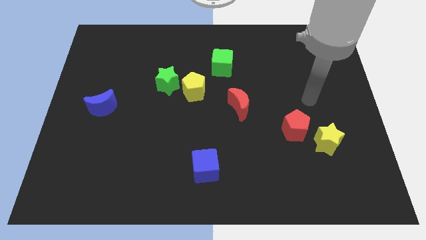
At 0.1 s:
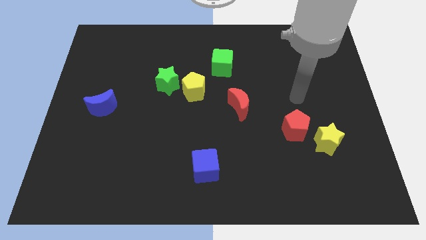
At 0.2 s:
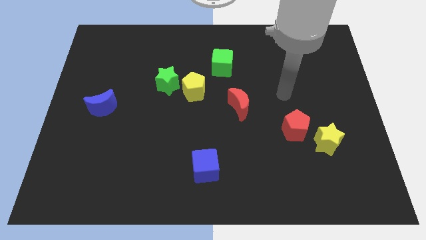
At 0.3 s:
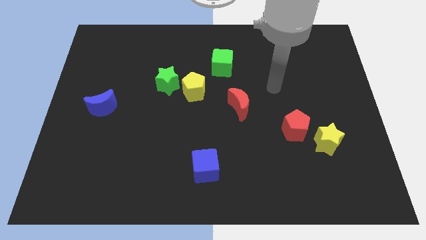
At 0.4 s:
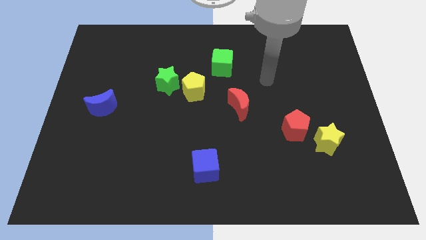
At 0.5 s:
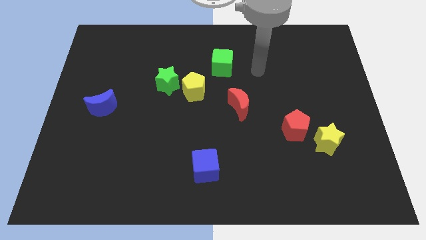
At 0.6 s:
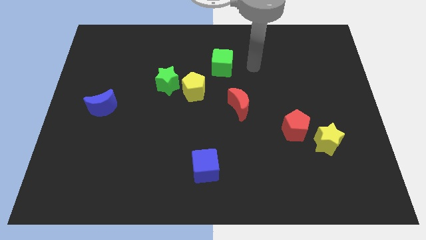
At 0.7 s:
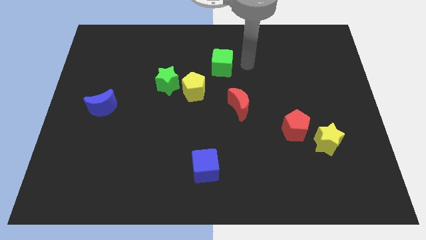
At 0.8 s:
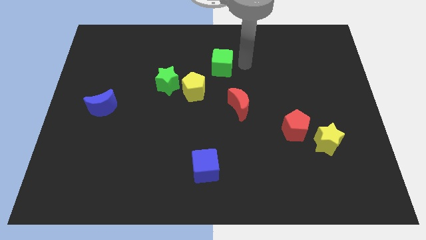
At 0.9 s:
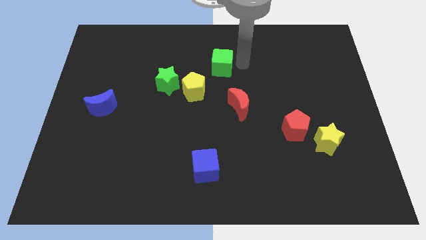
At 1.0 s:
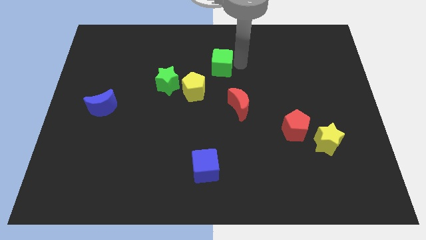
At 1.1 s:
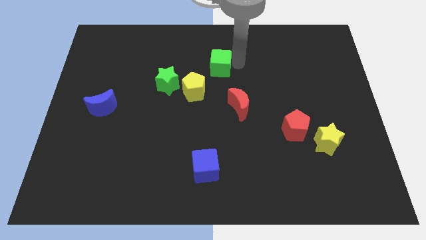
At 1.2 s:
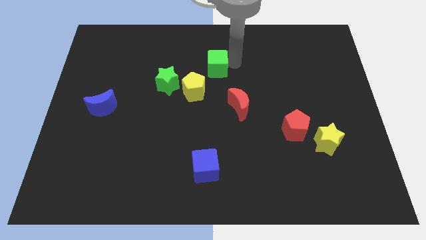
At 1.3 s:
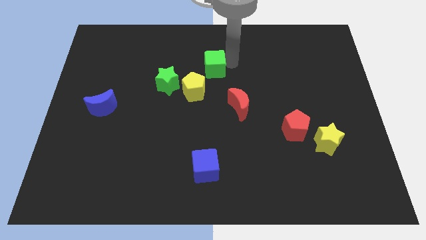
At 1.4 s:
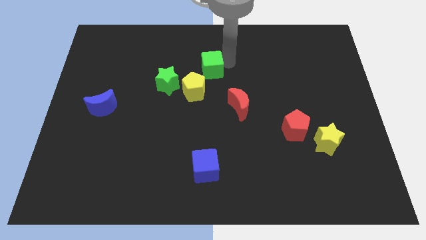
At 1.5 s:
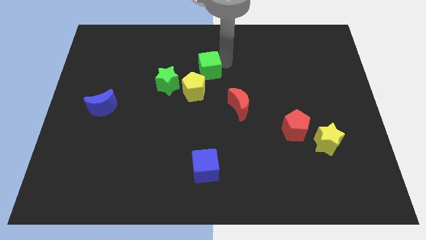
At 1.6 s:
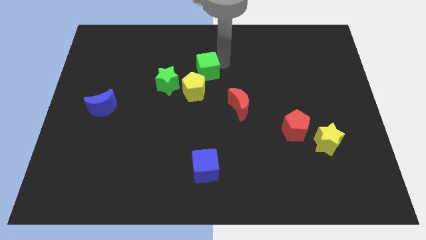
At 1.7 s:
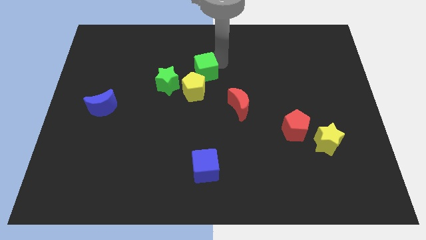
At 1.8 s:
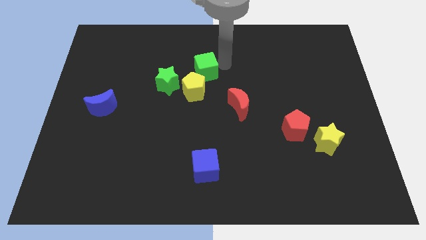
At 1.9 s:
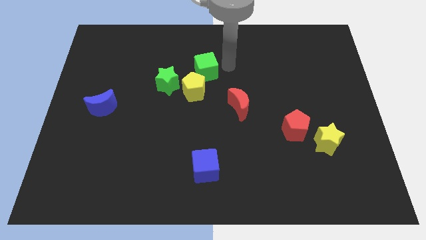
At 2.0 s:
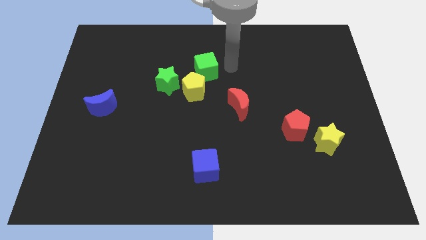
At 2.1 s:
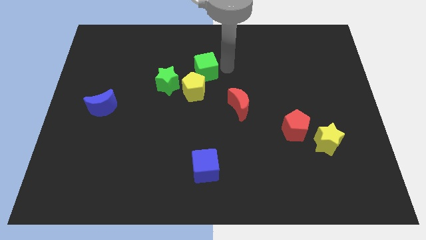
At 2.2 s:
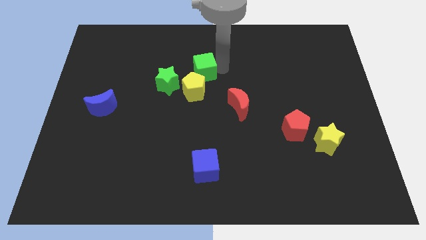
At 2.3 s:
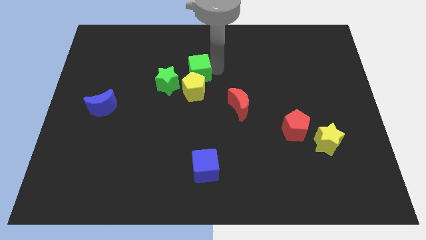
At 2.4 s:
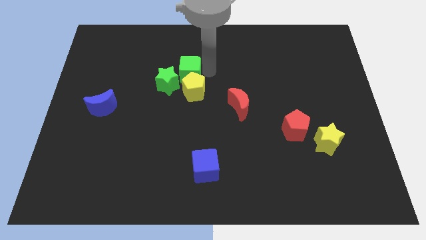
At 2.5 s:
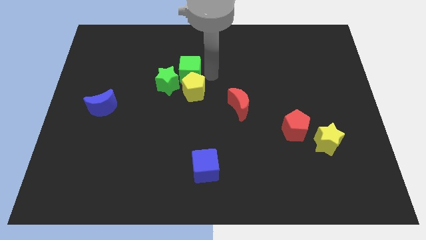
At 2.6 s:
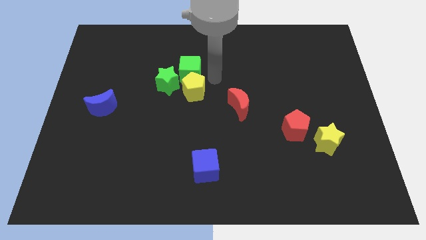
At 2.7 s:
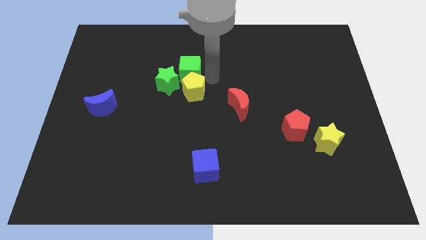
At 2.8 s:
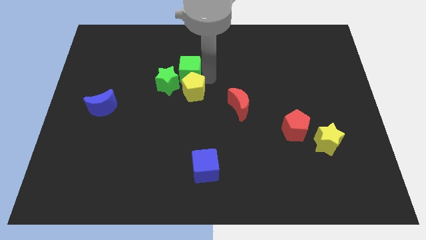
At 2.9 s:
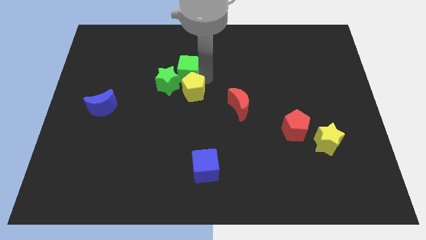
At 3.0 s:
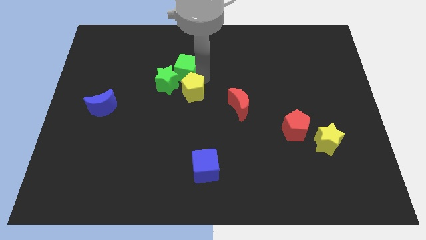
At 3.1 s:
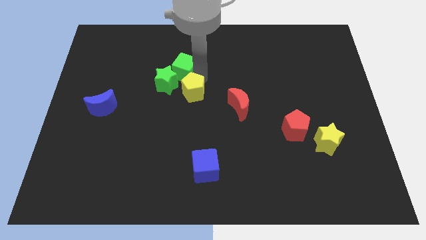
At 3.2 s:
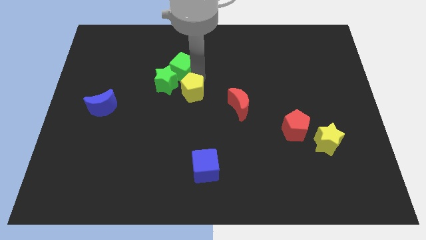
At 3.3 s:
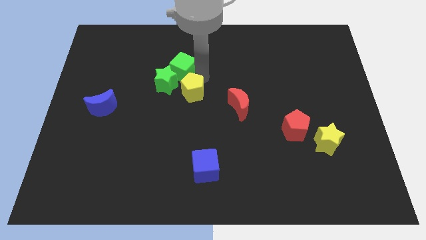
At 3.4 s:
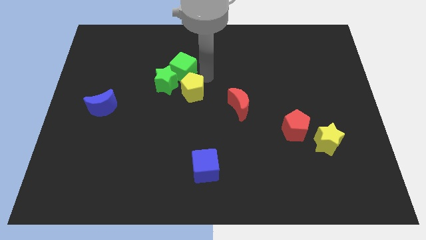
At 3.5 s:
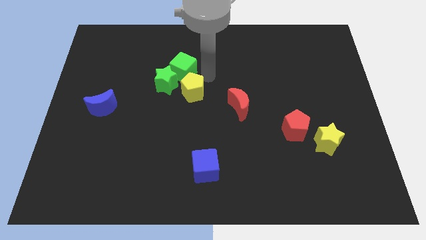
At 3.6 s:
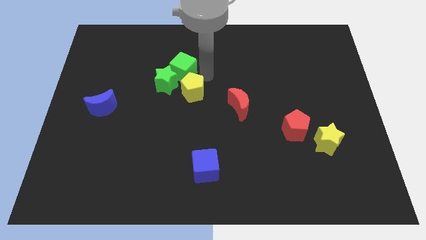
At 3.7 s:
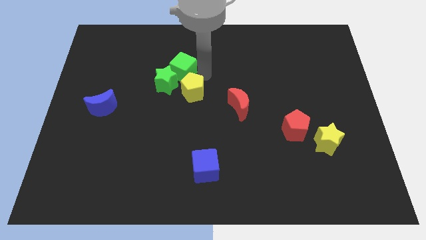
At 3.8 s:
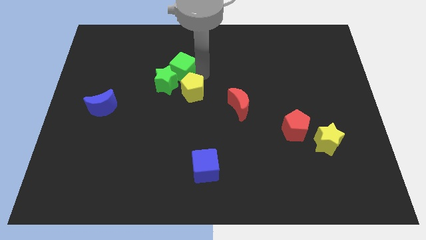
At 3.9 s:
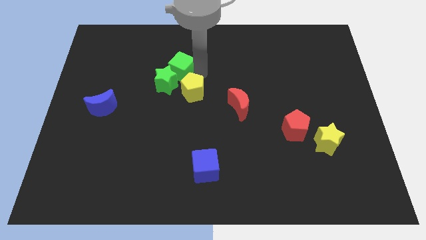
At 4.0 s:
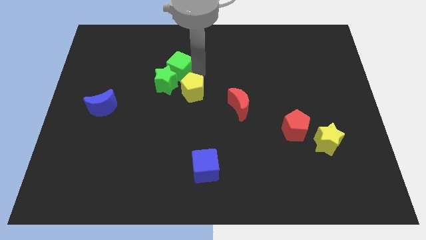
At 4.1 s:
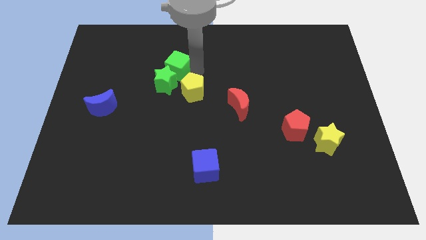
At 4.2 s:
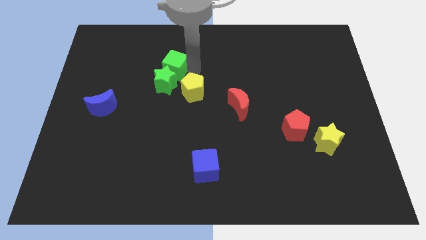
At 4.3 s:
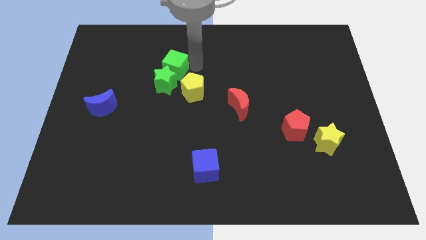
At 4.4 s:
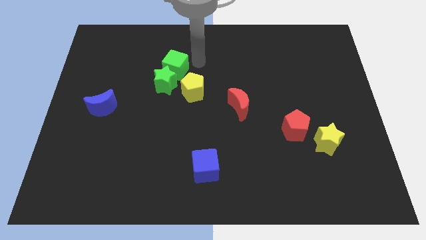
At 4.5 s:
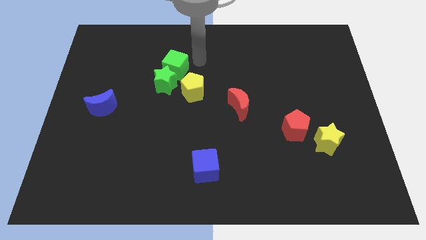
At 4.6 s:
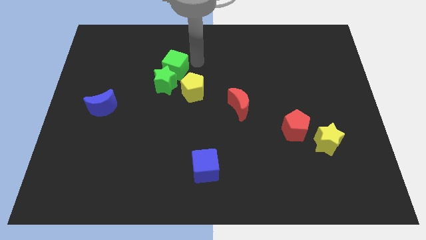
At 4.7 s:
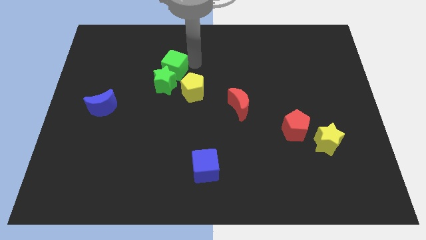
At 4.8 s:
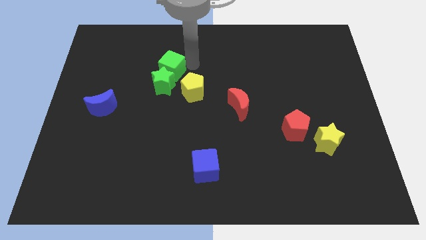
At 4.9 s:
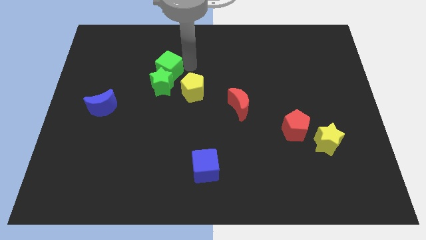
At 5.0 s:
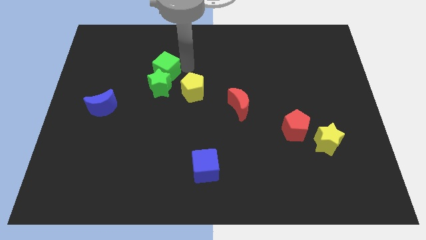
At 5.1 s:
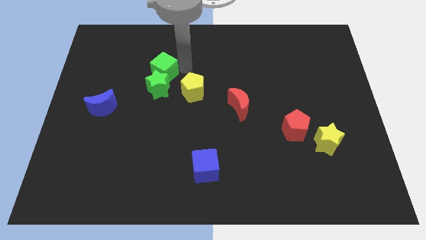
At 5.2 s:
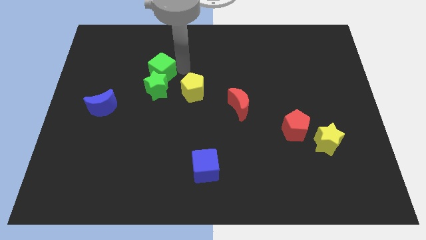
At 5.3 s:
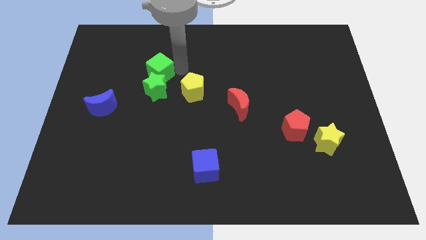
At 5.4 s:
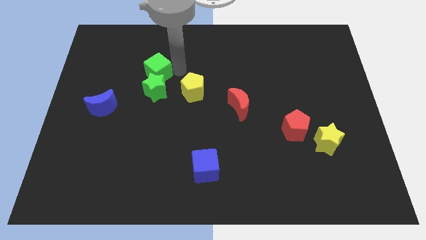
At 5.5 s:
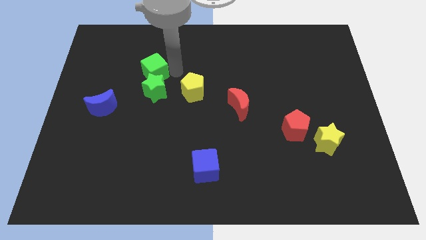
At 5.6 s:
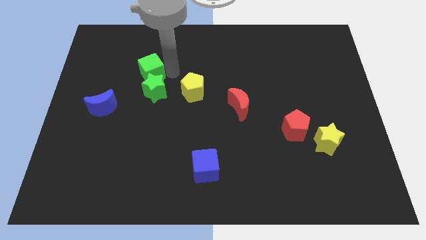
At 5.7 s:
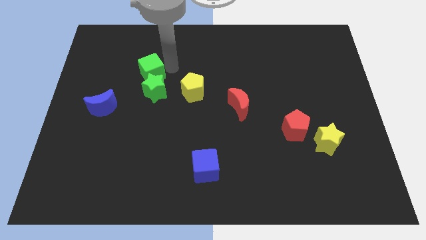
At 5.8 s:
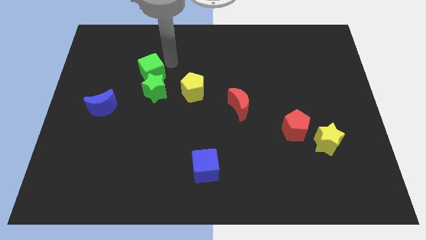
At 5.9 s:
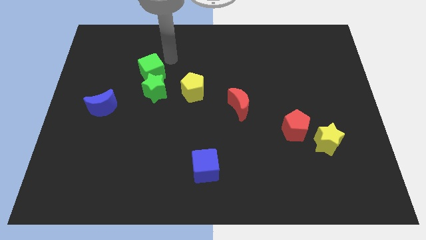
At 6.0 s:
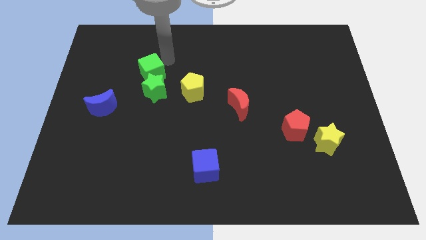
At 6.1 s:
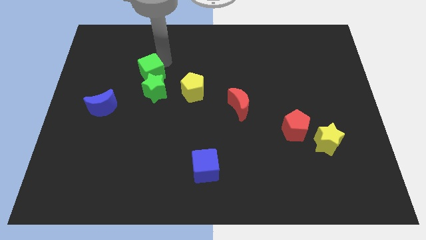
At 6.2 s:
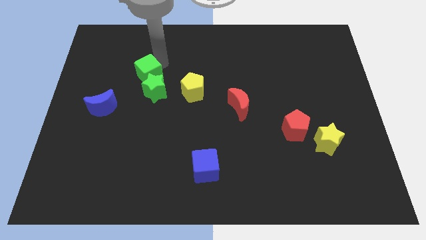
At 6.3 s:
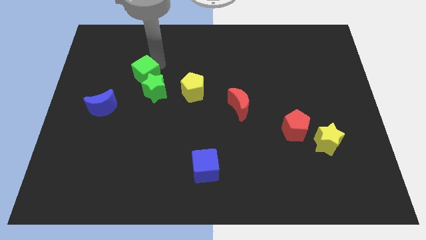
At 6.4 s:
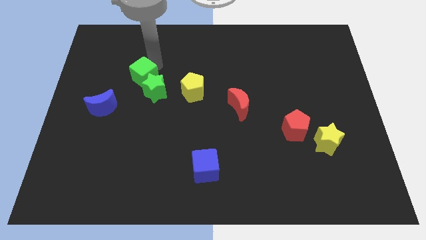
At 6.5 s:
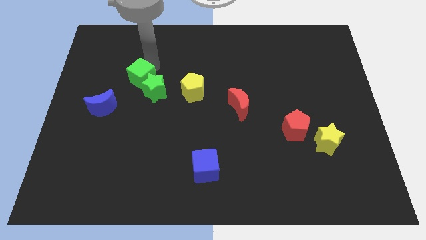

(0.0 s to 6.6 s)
put the green cube to the top right of the blue moon
